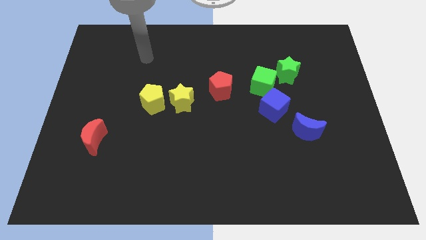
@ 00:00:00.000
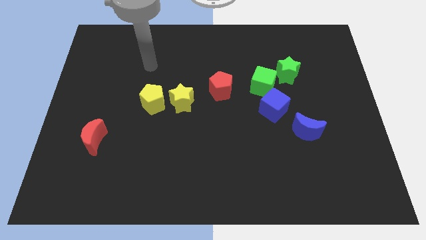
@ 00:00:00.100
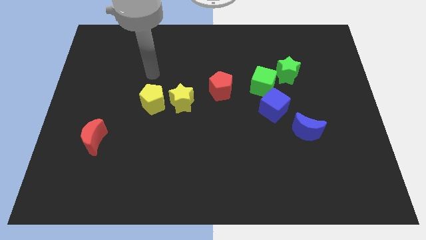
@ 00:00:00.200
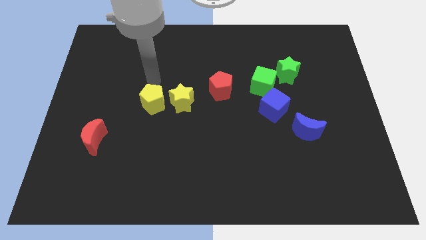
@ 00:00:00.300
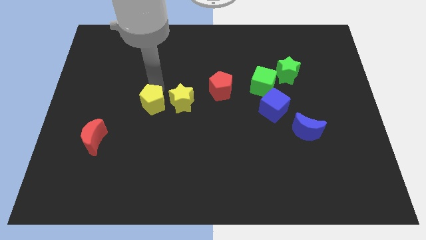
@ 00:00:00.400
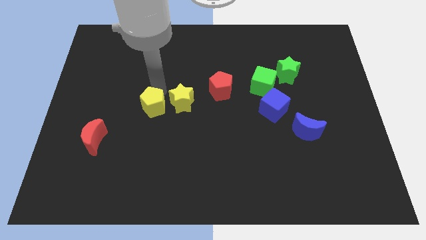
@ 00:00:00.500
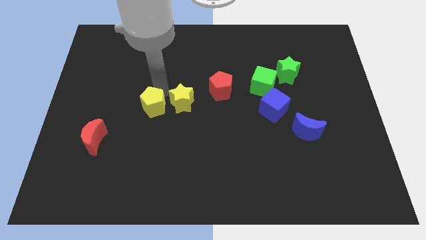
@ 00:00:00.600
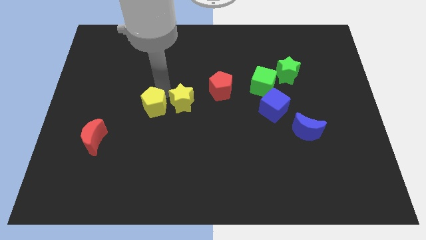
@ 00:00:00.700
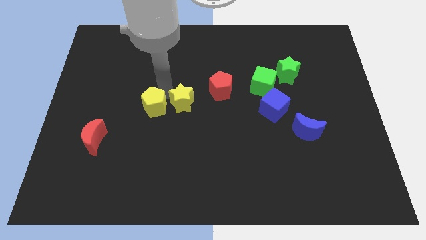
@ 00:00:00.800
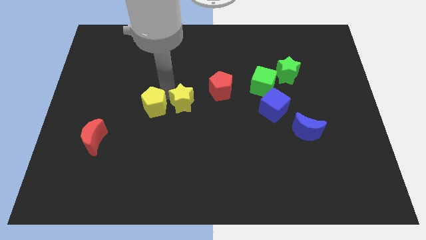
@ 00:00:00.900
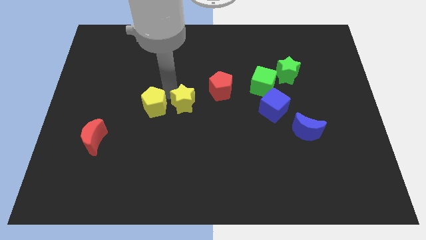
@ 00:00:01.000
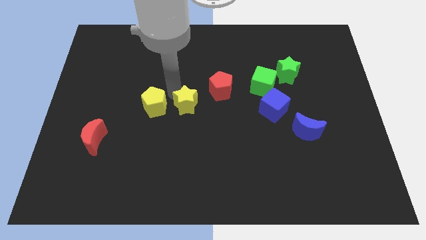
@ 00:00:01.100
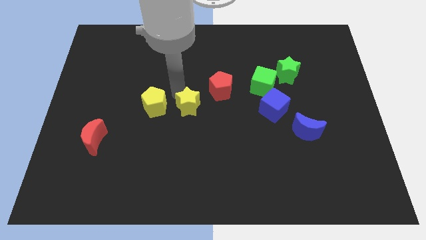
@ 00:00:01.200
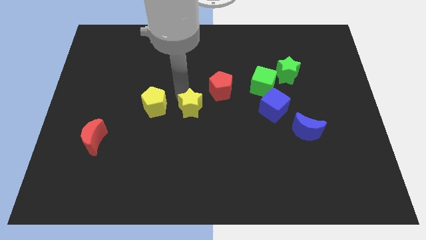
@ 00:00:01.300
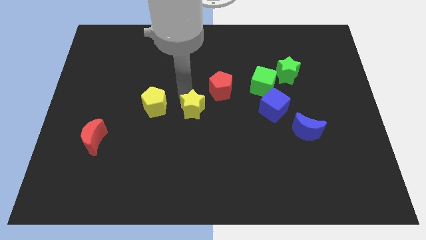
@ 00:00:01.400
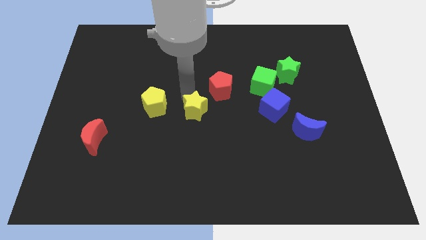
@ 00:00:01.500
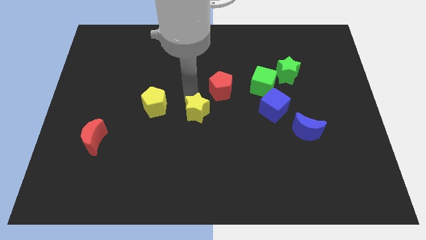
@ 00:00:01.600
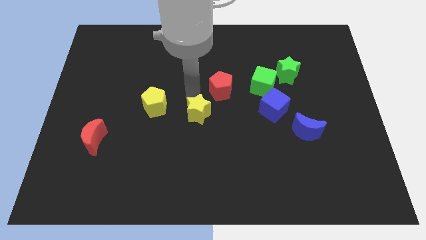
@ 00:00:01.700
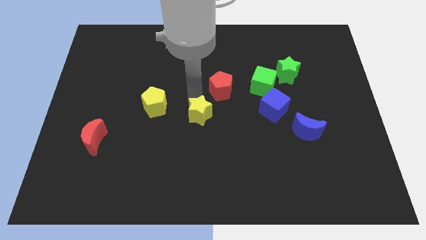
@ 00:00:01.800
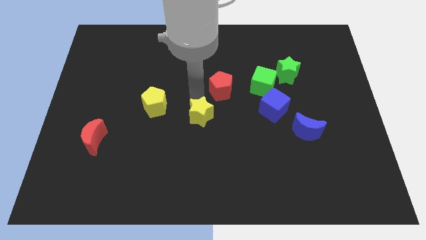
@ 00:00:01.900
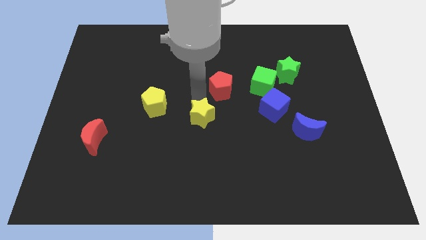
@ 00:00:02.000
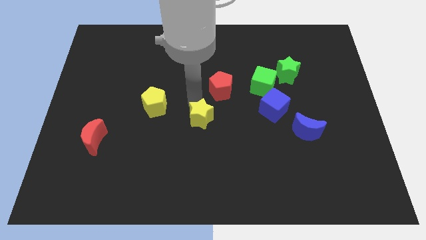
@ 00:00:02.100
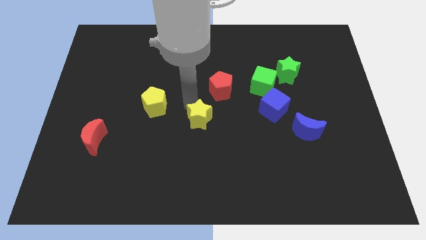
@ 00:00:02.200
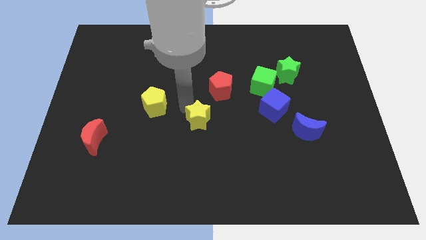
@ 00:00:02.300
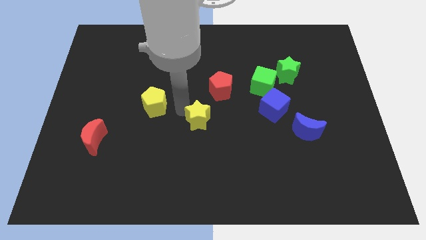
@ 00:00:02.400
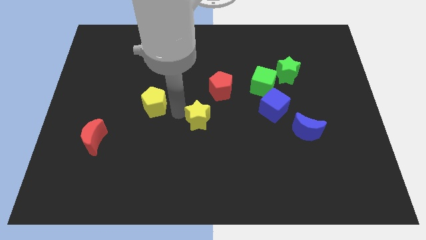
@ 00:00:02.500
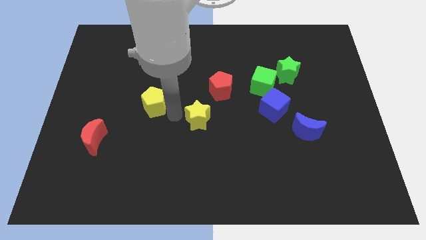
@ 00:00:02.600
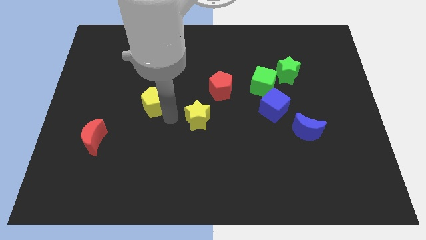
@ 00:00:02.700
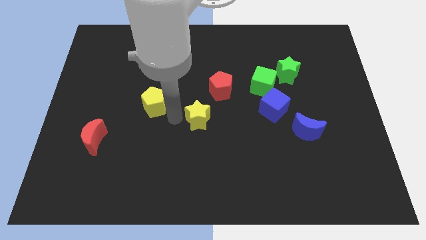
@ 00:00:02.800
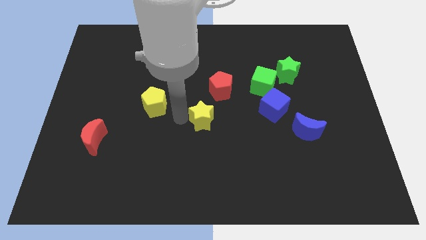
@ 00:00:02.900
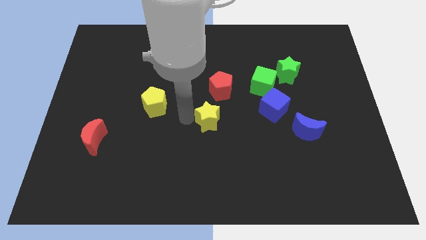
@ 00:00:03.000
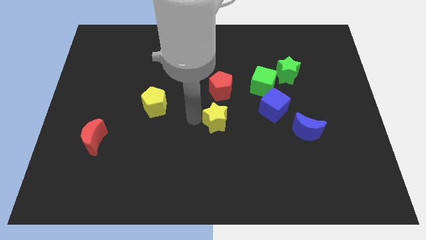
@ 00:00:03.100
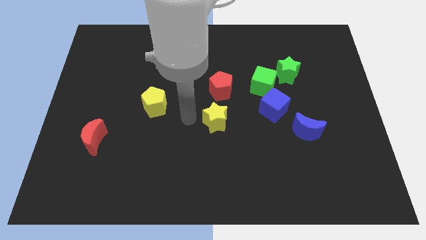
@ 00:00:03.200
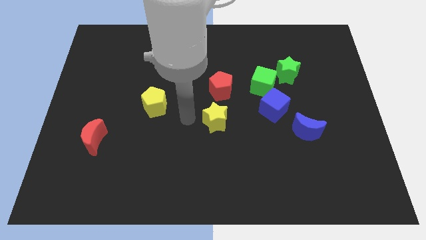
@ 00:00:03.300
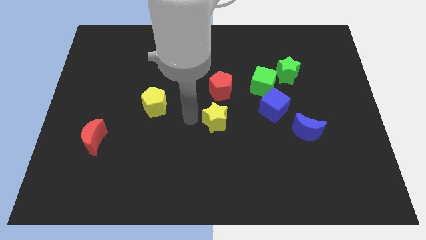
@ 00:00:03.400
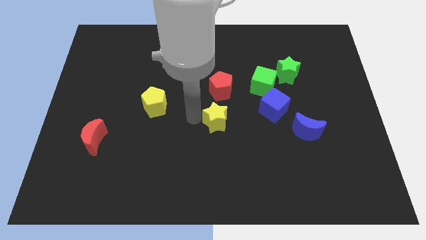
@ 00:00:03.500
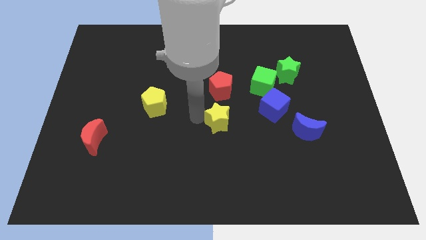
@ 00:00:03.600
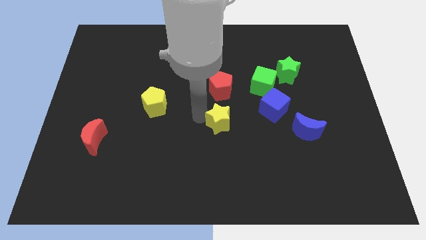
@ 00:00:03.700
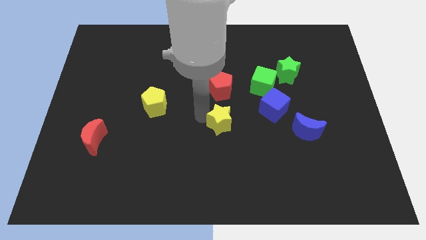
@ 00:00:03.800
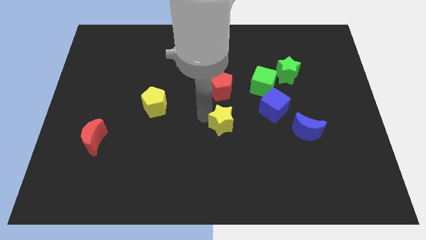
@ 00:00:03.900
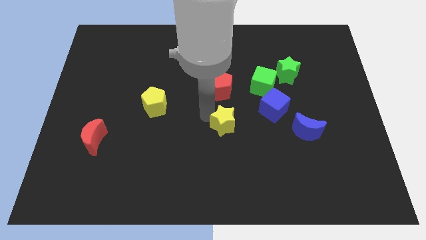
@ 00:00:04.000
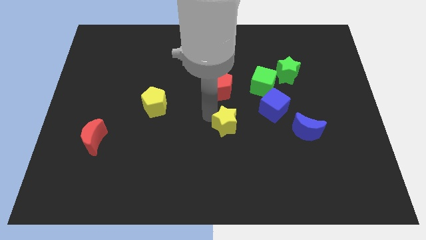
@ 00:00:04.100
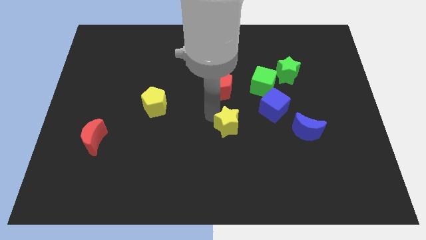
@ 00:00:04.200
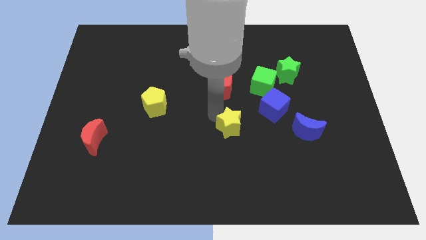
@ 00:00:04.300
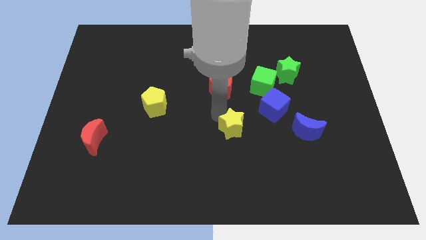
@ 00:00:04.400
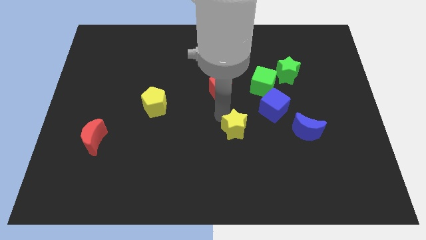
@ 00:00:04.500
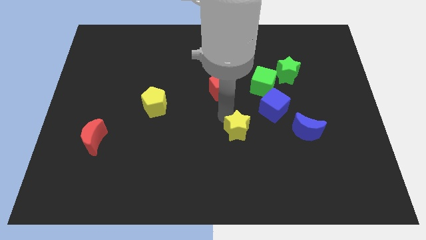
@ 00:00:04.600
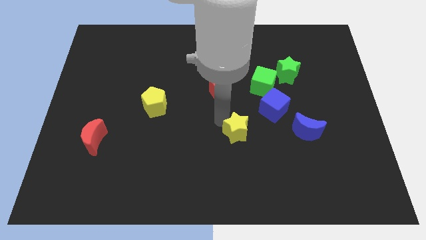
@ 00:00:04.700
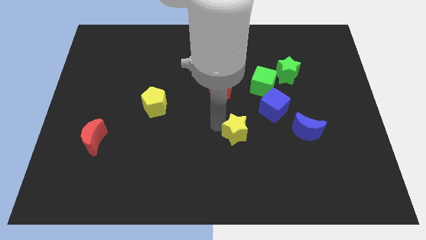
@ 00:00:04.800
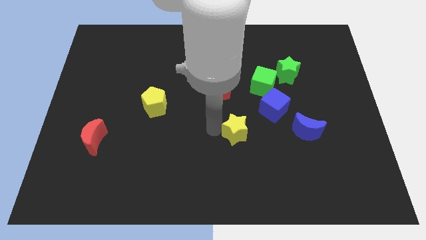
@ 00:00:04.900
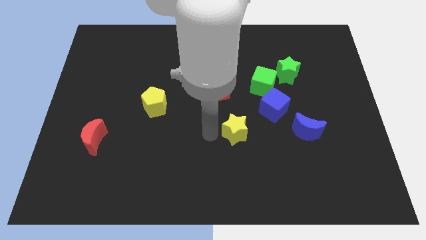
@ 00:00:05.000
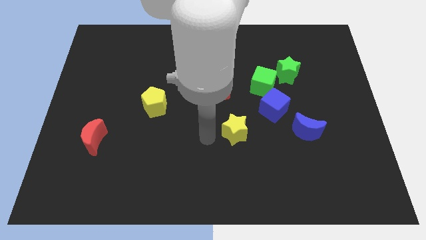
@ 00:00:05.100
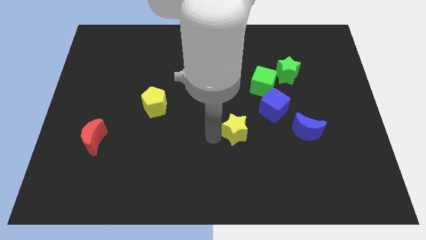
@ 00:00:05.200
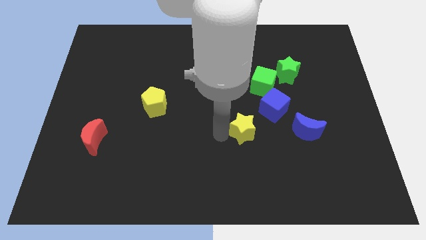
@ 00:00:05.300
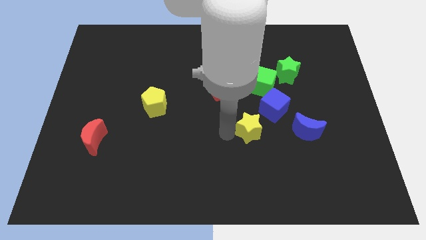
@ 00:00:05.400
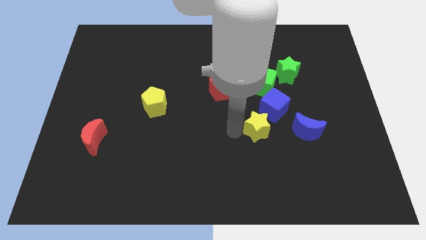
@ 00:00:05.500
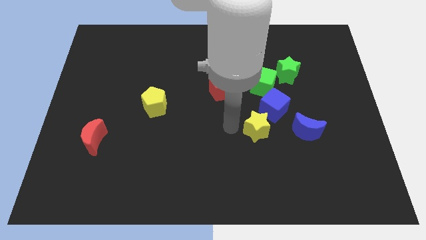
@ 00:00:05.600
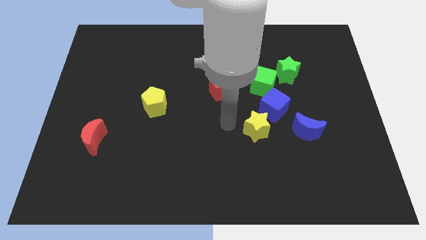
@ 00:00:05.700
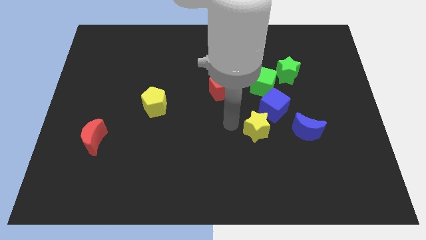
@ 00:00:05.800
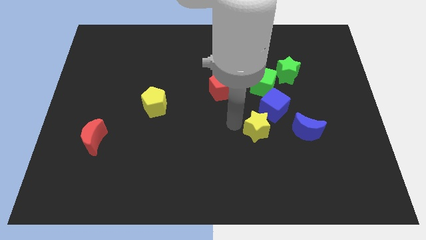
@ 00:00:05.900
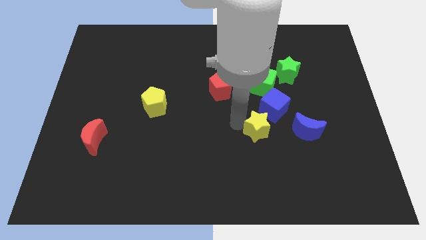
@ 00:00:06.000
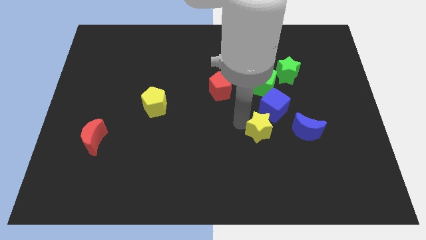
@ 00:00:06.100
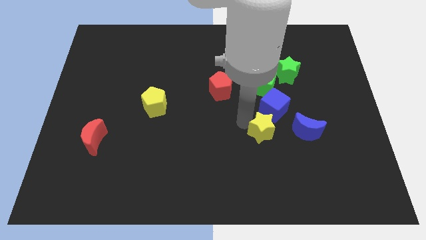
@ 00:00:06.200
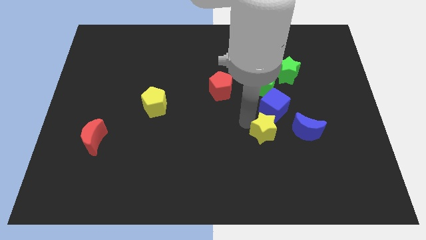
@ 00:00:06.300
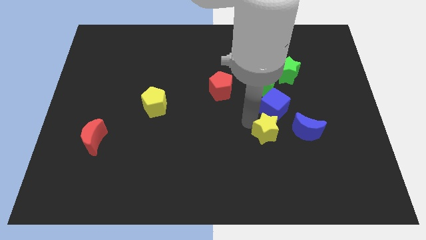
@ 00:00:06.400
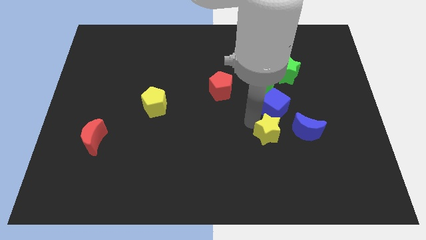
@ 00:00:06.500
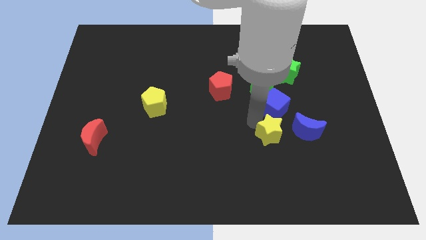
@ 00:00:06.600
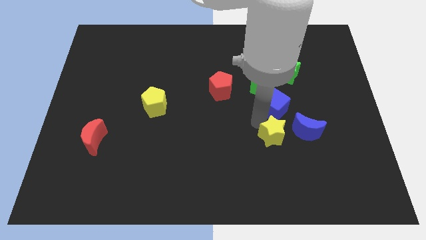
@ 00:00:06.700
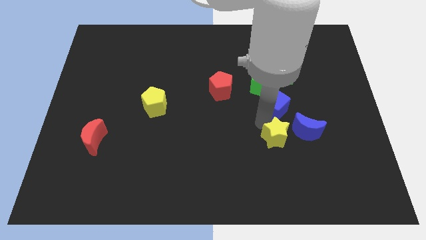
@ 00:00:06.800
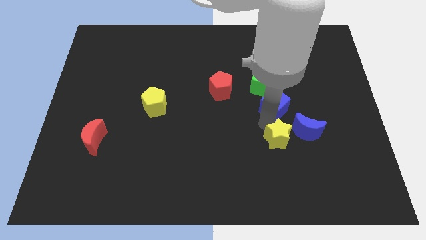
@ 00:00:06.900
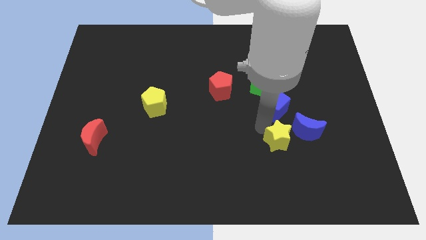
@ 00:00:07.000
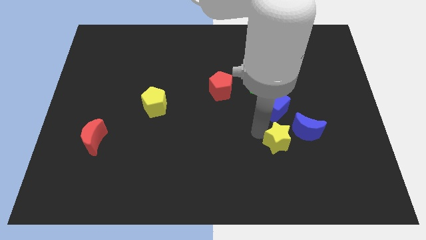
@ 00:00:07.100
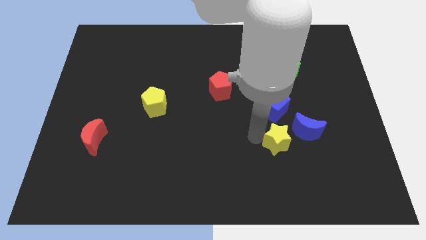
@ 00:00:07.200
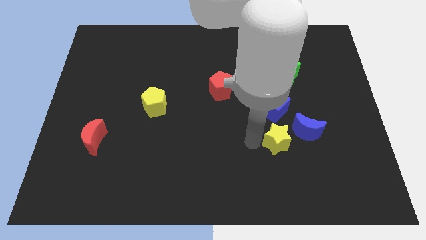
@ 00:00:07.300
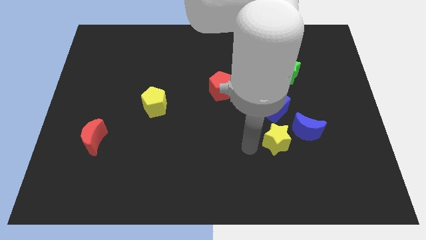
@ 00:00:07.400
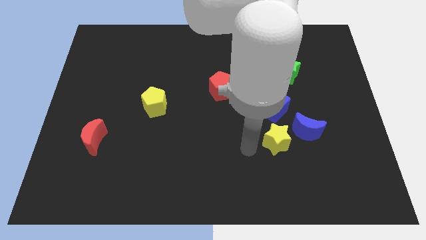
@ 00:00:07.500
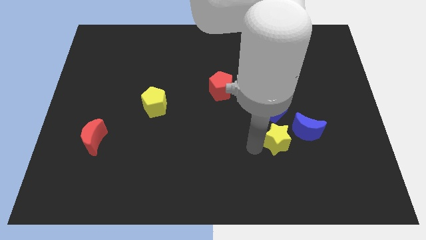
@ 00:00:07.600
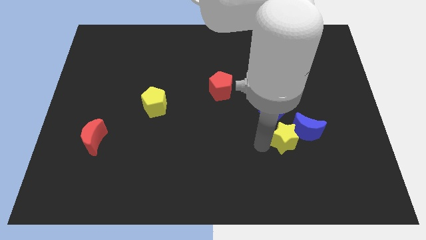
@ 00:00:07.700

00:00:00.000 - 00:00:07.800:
slide the yellow star to the blue moon
